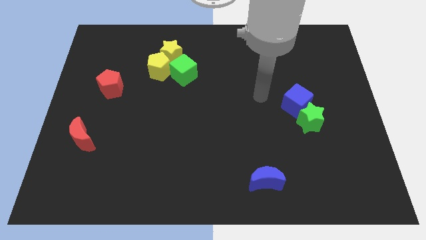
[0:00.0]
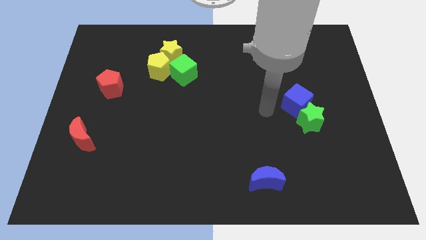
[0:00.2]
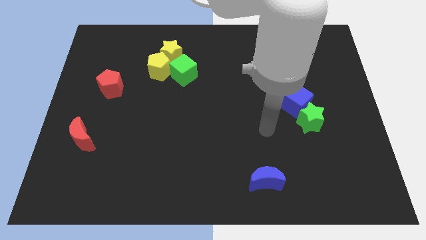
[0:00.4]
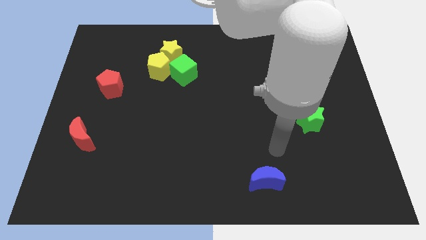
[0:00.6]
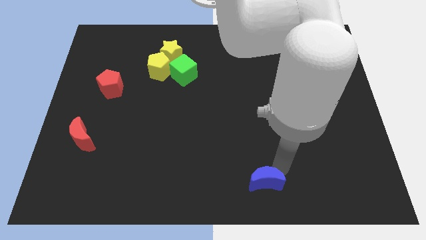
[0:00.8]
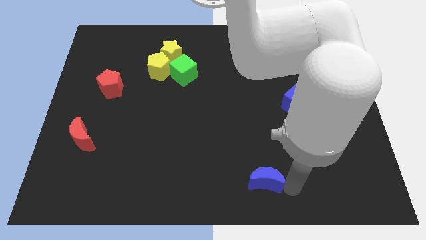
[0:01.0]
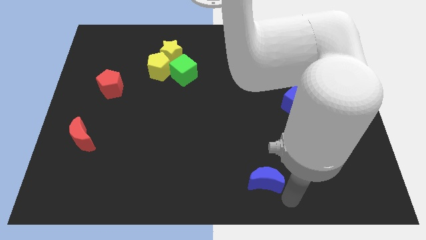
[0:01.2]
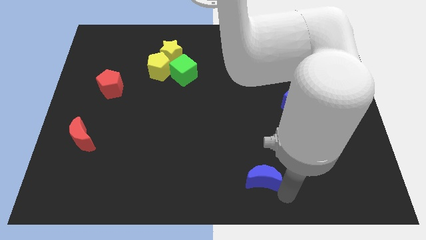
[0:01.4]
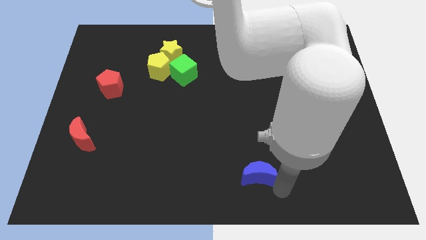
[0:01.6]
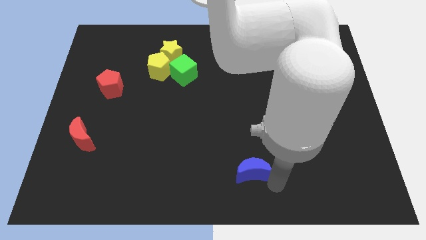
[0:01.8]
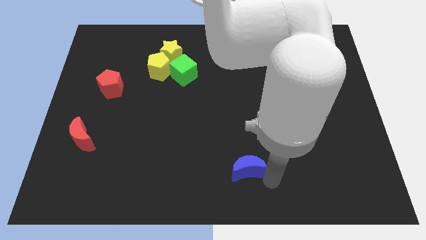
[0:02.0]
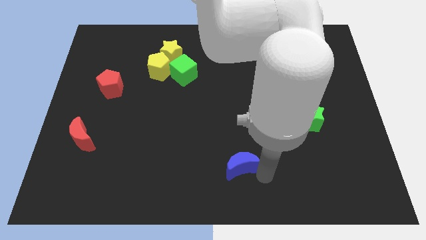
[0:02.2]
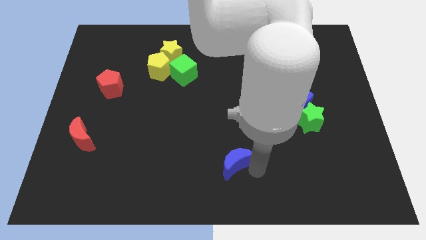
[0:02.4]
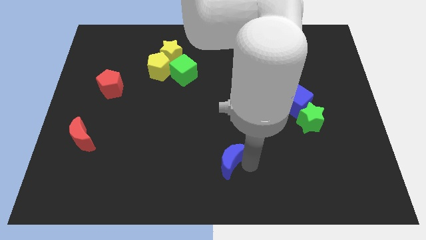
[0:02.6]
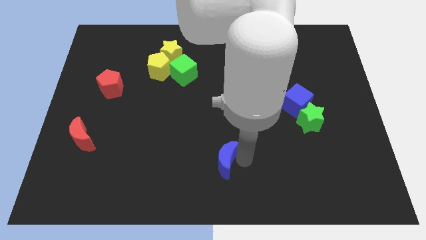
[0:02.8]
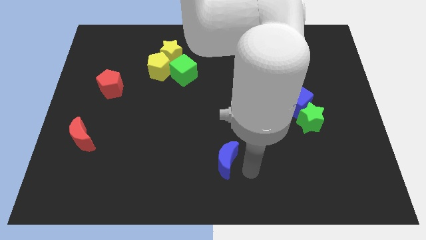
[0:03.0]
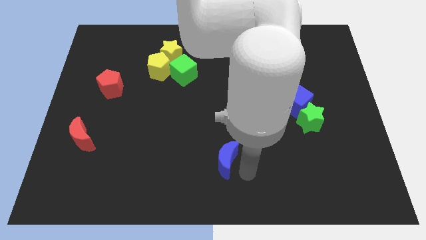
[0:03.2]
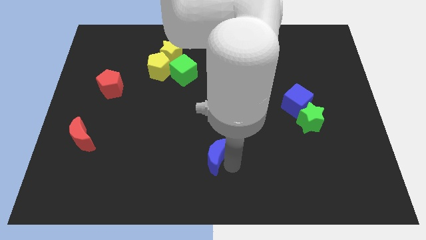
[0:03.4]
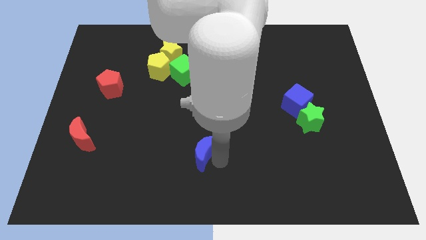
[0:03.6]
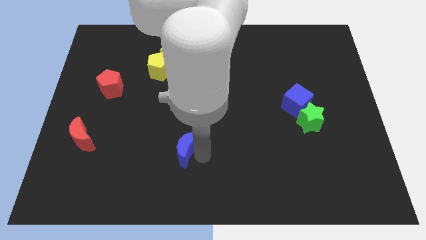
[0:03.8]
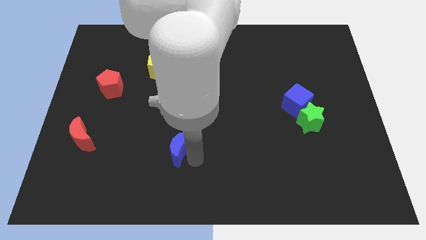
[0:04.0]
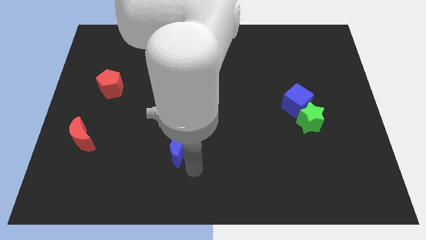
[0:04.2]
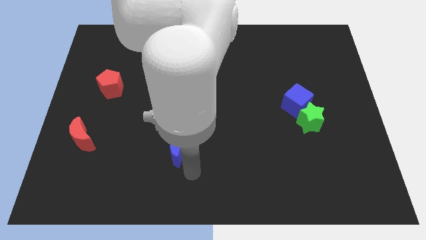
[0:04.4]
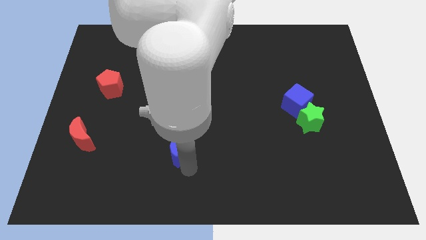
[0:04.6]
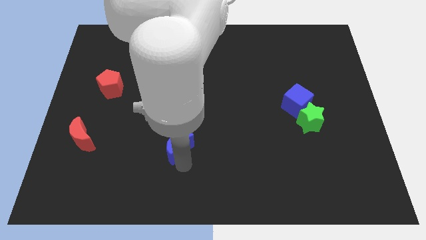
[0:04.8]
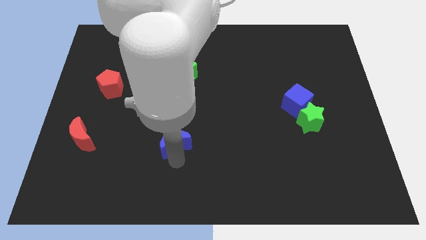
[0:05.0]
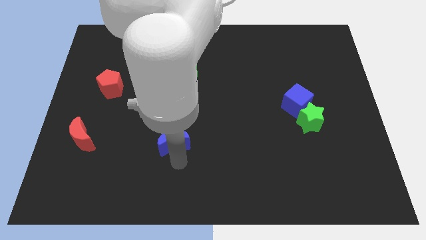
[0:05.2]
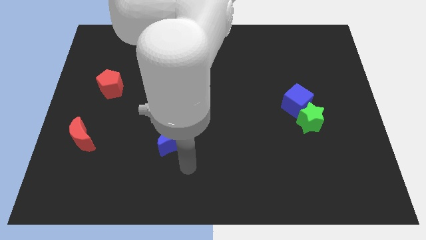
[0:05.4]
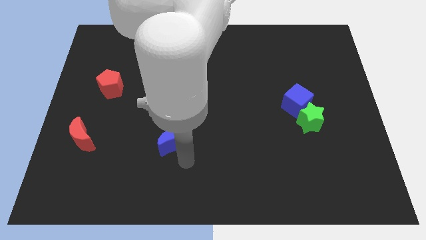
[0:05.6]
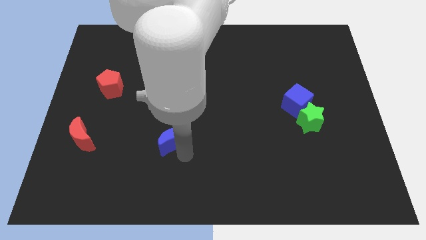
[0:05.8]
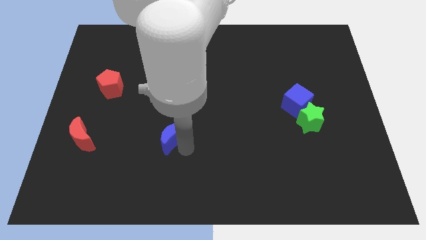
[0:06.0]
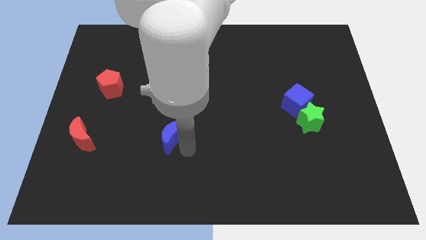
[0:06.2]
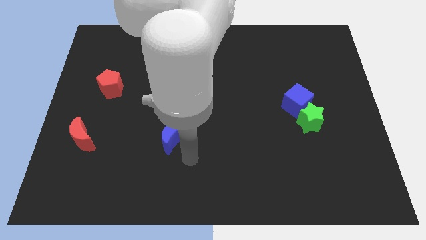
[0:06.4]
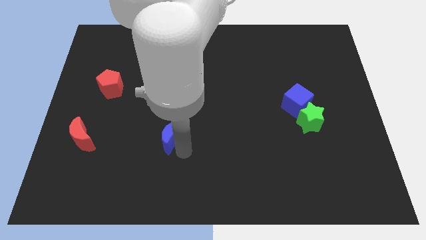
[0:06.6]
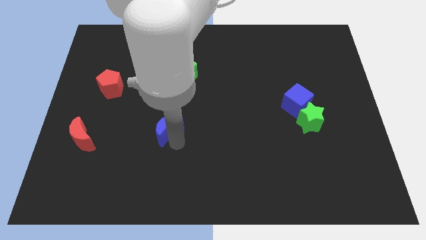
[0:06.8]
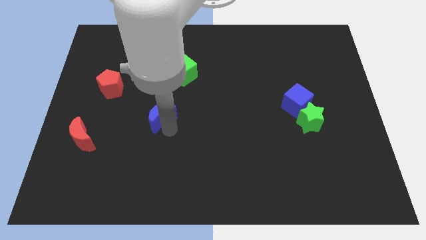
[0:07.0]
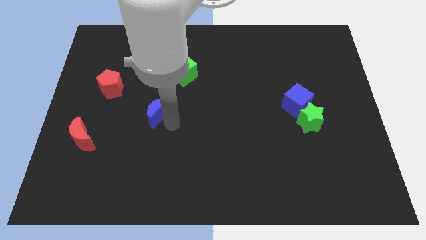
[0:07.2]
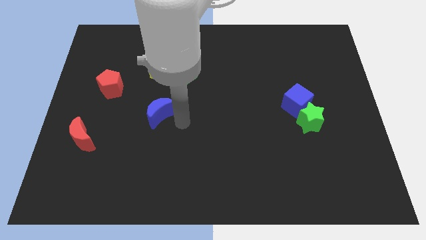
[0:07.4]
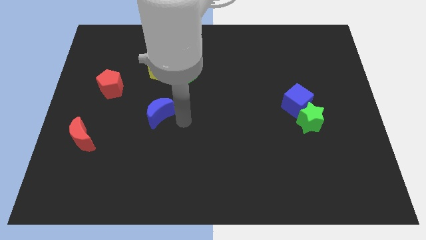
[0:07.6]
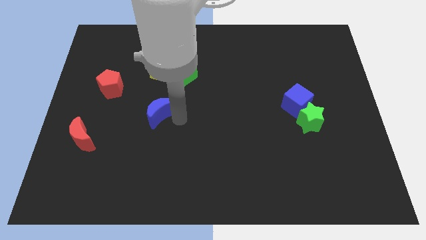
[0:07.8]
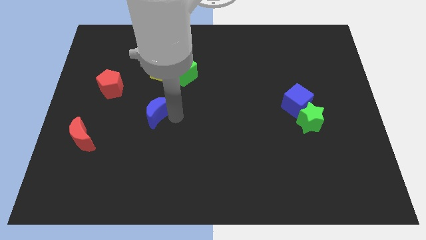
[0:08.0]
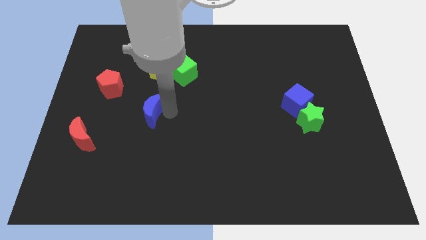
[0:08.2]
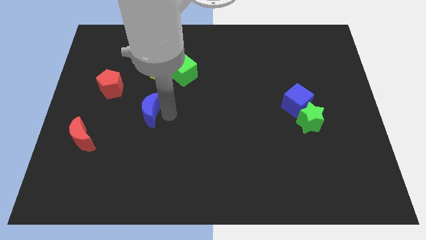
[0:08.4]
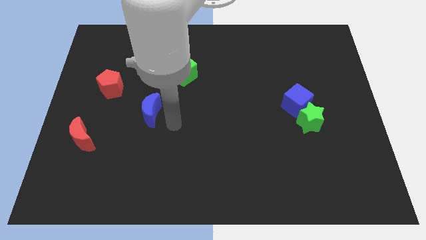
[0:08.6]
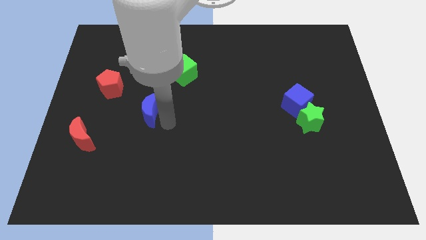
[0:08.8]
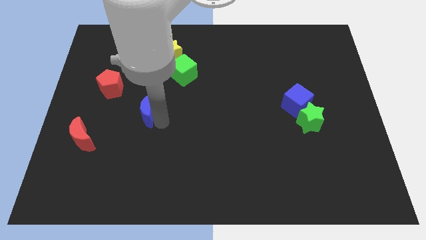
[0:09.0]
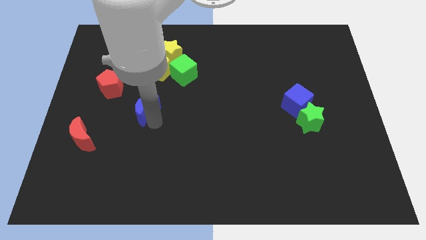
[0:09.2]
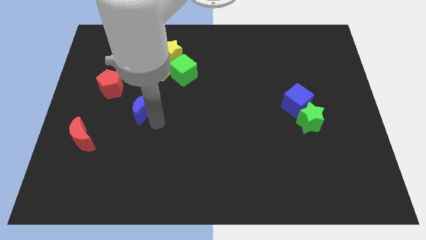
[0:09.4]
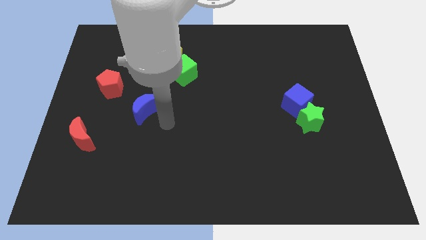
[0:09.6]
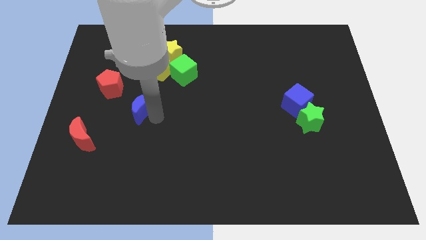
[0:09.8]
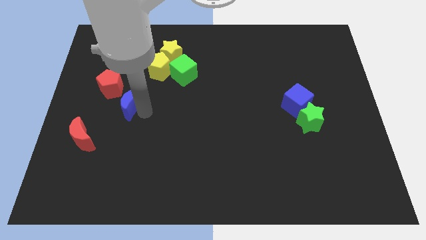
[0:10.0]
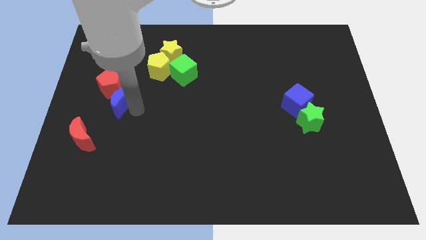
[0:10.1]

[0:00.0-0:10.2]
push the blue moon to the red pentagon

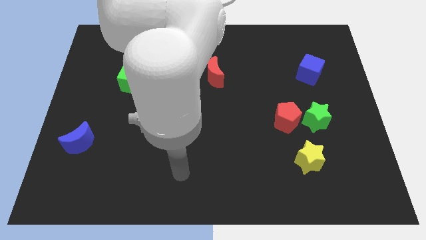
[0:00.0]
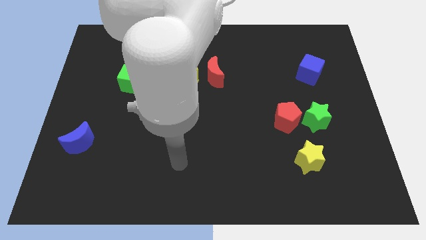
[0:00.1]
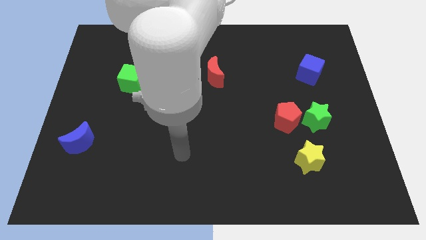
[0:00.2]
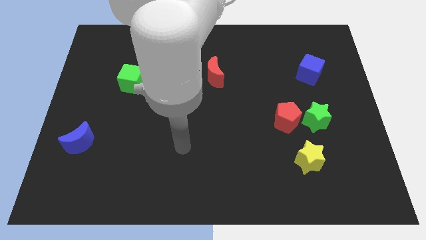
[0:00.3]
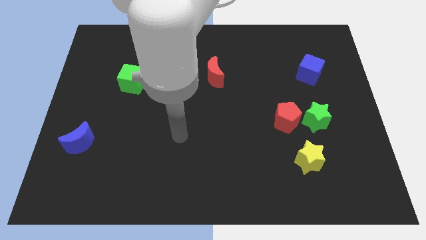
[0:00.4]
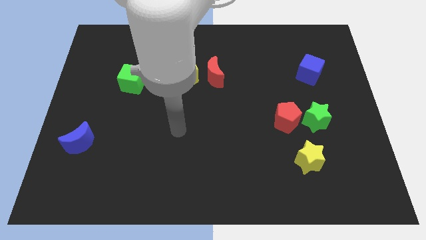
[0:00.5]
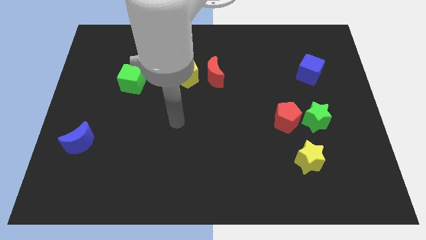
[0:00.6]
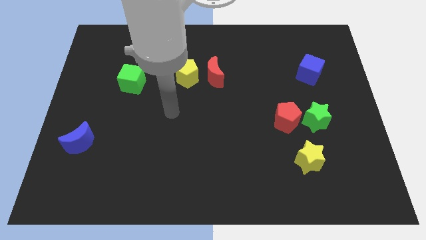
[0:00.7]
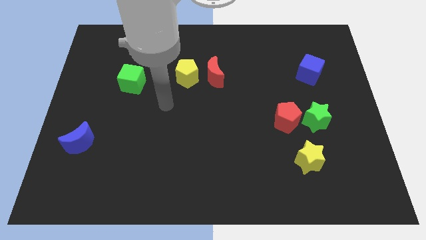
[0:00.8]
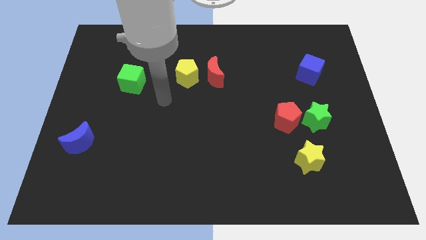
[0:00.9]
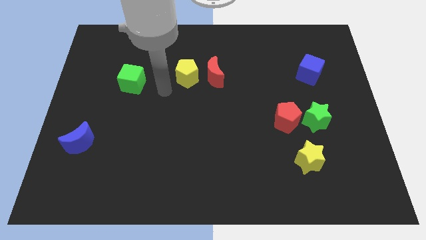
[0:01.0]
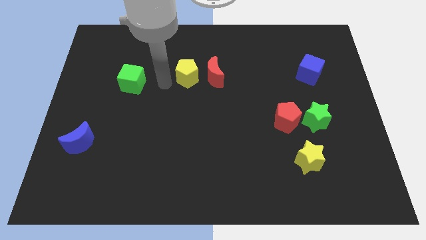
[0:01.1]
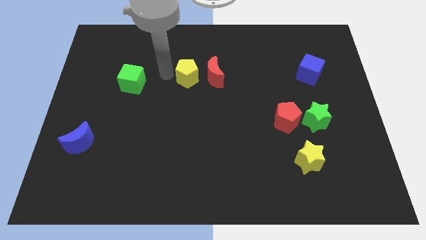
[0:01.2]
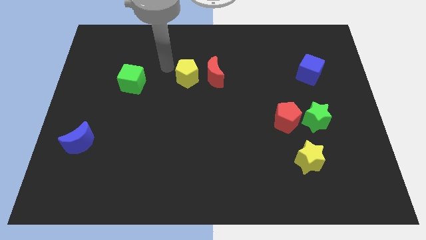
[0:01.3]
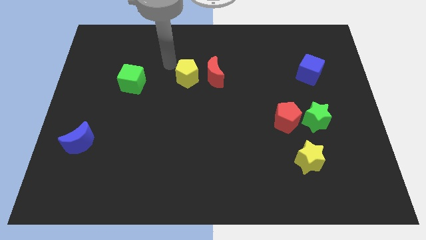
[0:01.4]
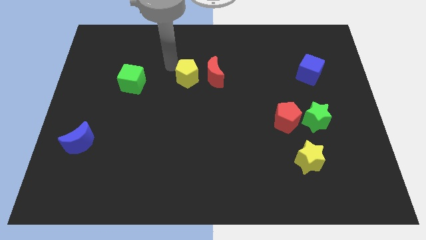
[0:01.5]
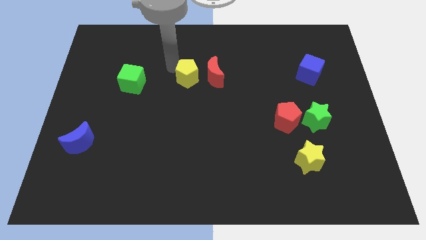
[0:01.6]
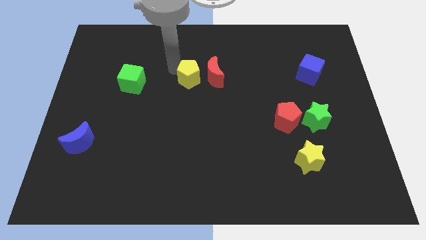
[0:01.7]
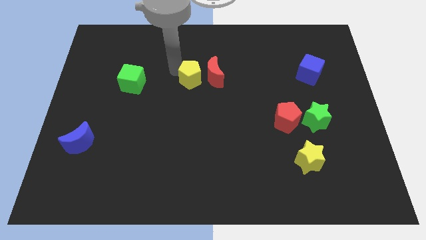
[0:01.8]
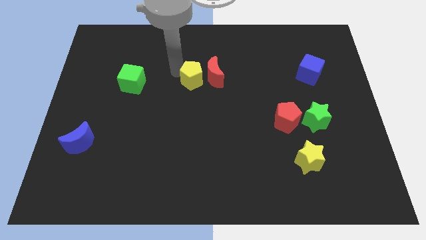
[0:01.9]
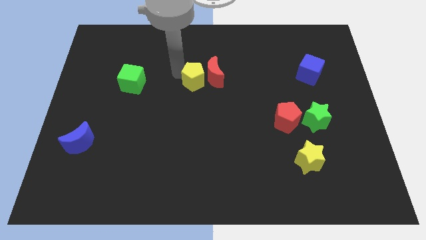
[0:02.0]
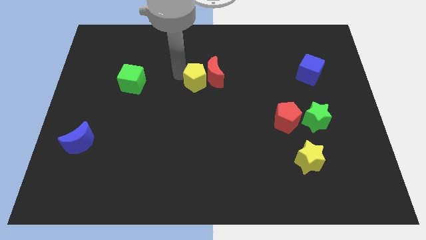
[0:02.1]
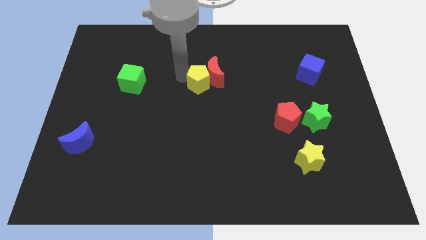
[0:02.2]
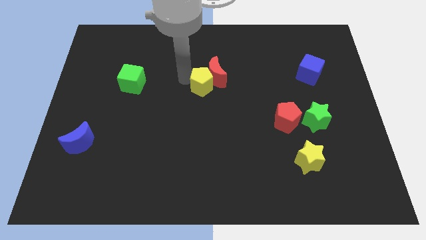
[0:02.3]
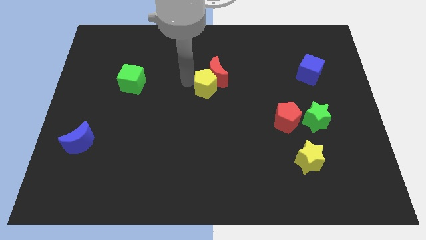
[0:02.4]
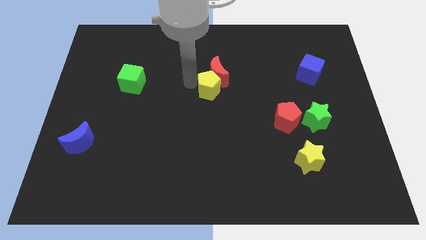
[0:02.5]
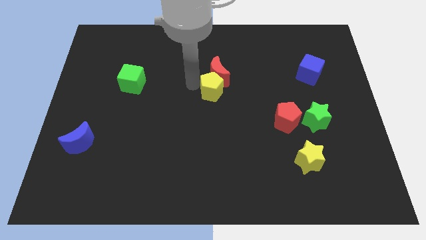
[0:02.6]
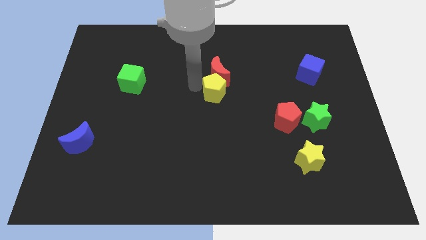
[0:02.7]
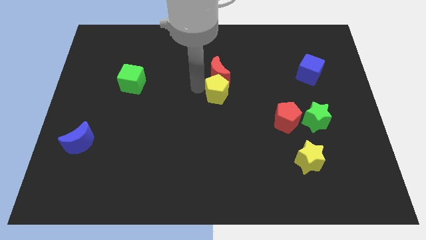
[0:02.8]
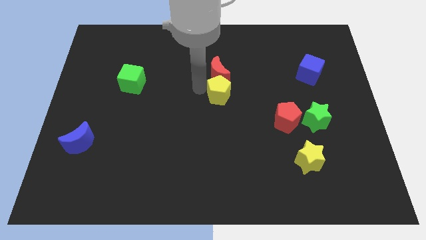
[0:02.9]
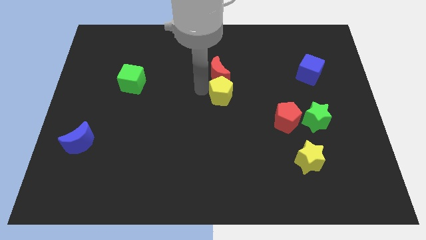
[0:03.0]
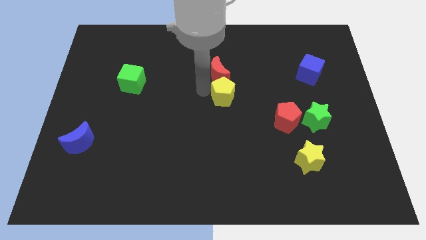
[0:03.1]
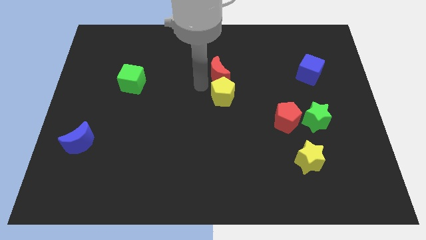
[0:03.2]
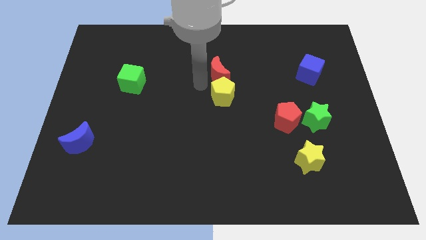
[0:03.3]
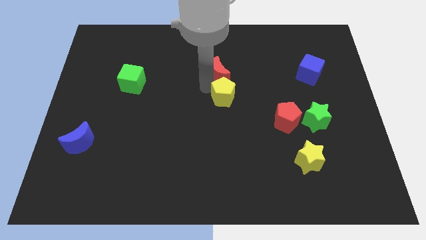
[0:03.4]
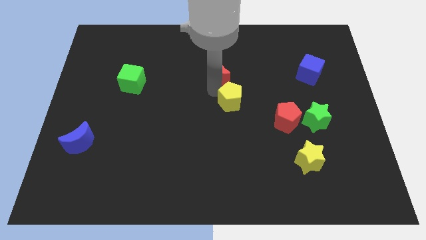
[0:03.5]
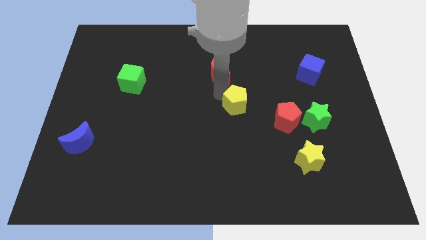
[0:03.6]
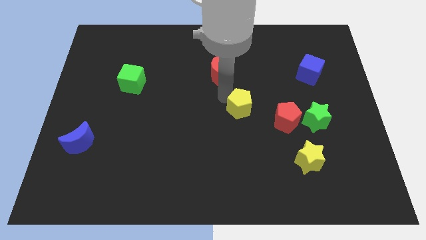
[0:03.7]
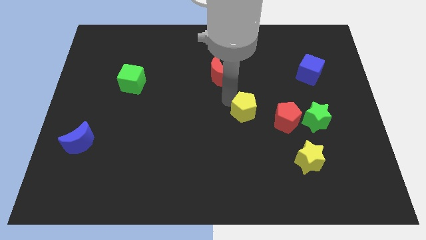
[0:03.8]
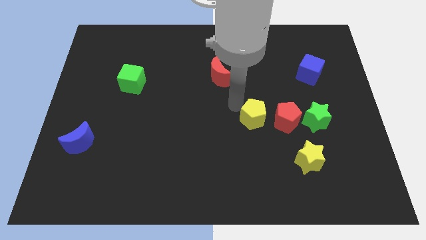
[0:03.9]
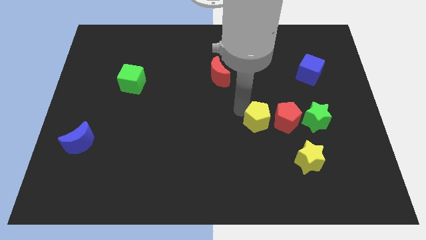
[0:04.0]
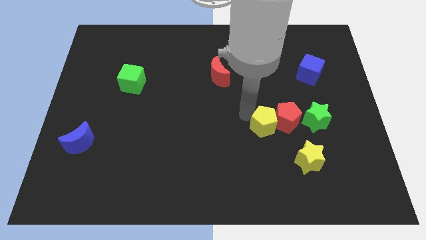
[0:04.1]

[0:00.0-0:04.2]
push the yellow pentagon to the red pentagon
